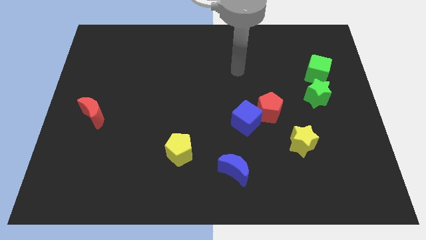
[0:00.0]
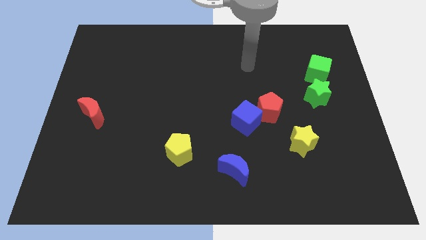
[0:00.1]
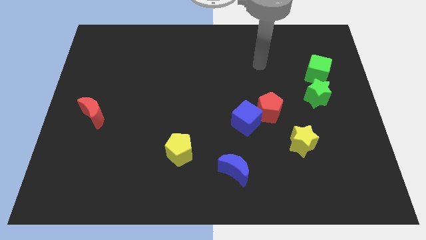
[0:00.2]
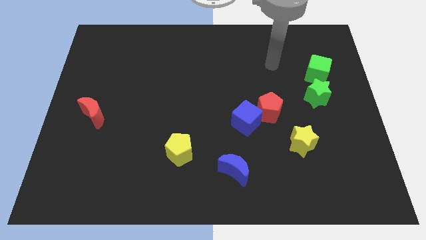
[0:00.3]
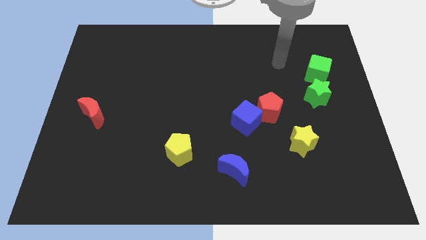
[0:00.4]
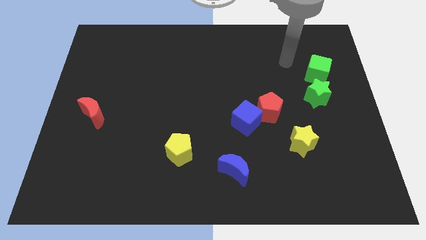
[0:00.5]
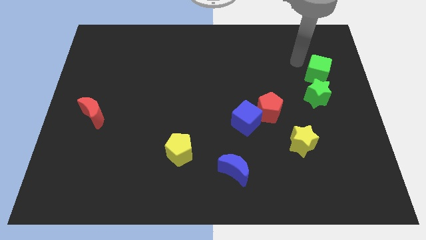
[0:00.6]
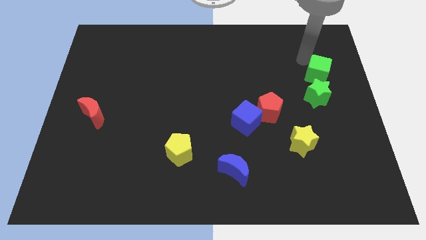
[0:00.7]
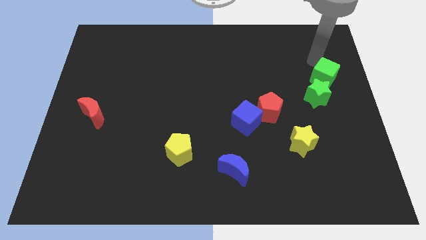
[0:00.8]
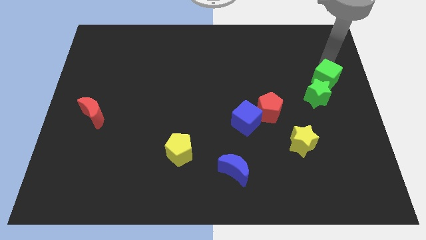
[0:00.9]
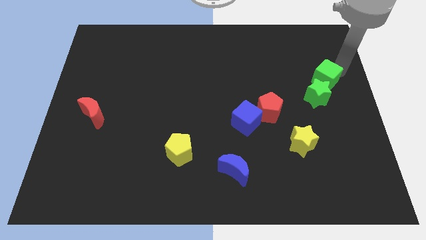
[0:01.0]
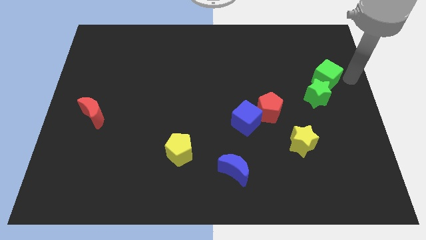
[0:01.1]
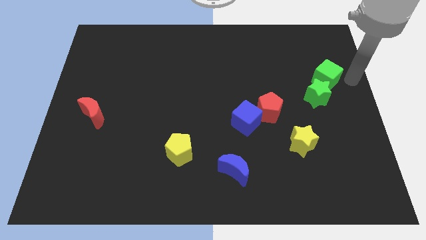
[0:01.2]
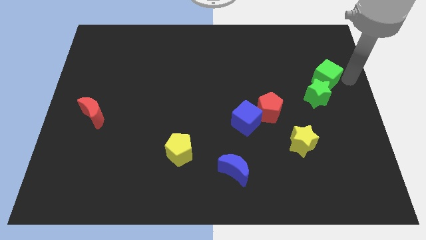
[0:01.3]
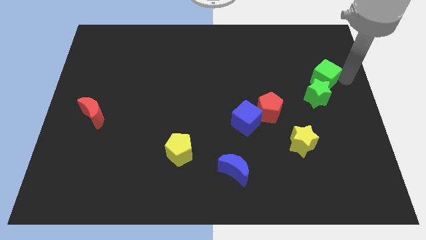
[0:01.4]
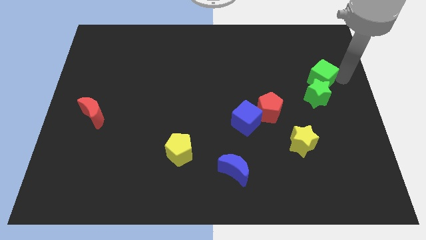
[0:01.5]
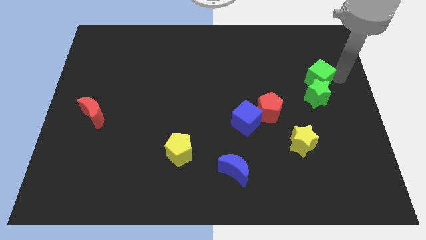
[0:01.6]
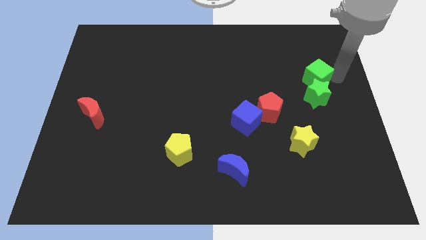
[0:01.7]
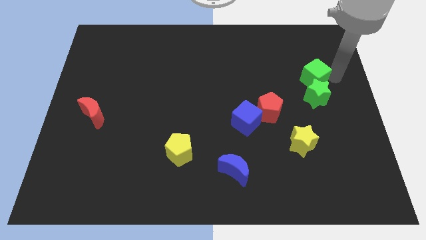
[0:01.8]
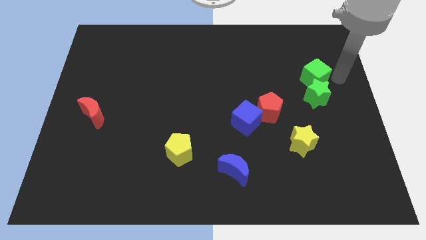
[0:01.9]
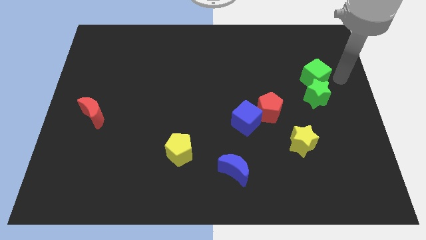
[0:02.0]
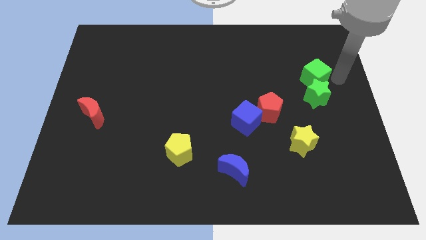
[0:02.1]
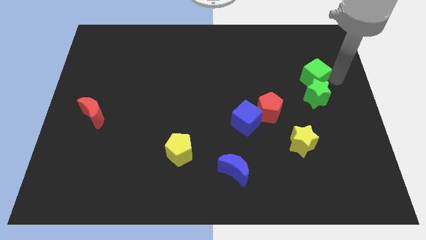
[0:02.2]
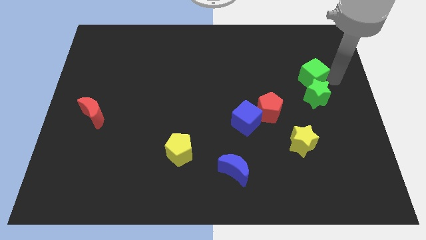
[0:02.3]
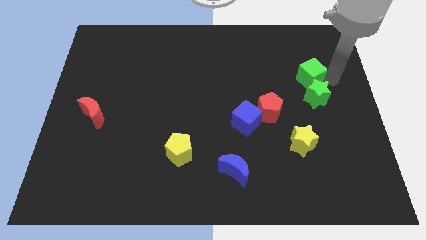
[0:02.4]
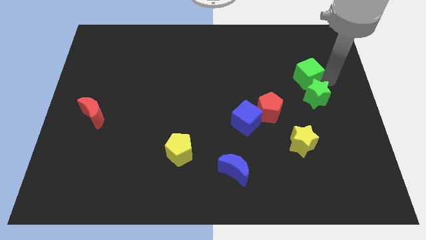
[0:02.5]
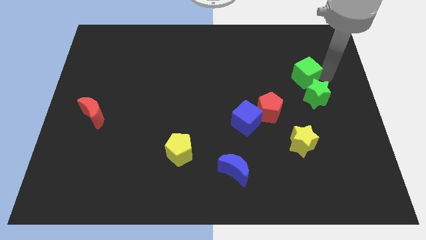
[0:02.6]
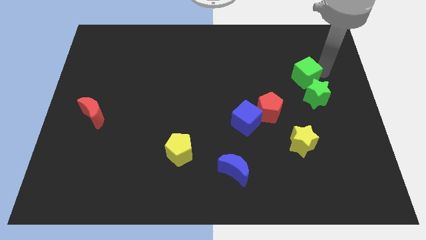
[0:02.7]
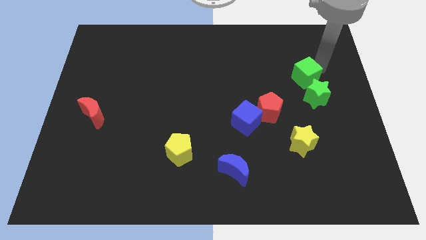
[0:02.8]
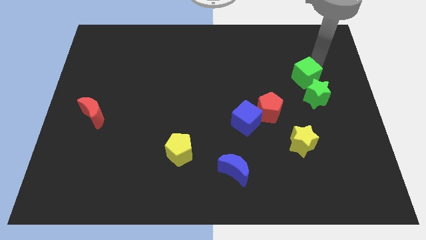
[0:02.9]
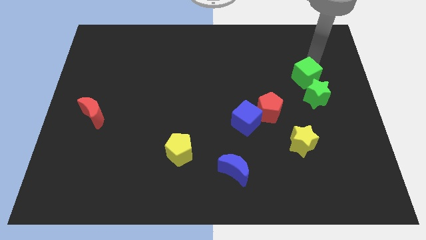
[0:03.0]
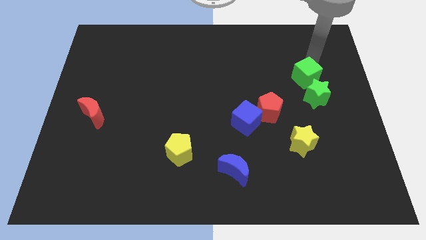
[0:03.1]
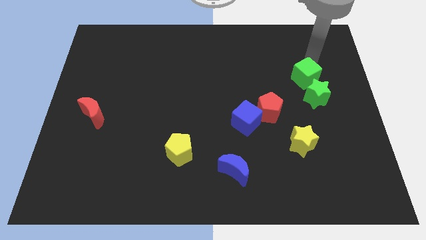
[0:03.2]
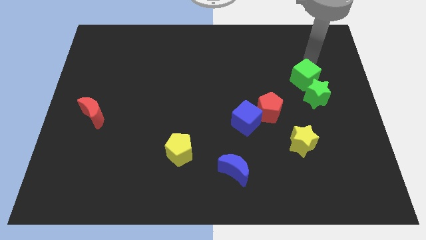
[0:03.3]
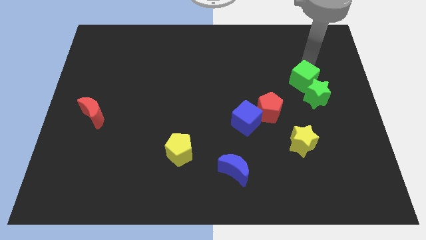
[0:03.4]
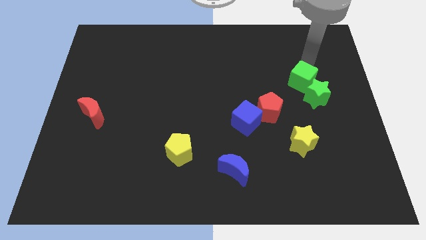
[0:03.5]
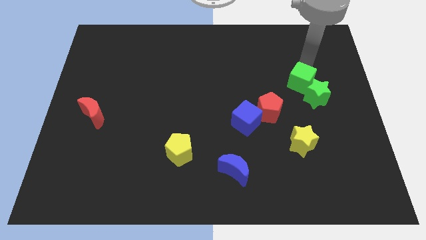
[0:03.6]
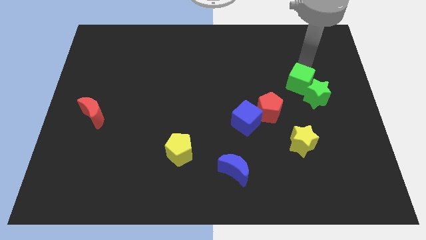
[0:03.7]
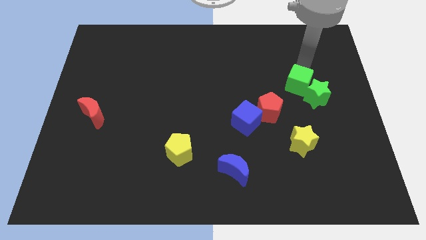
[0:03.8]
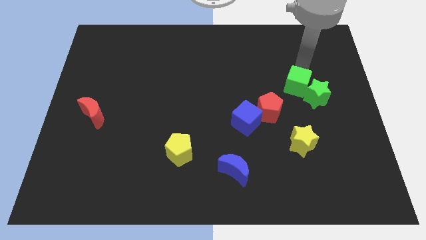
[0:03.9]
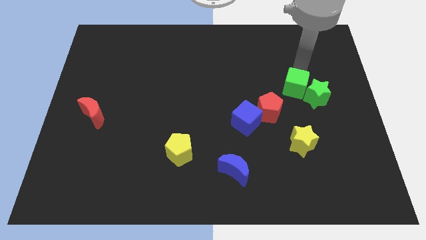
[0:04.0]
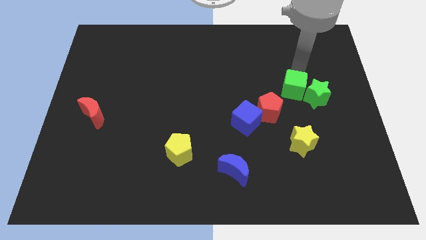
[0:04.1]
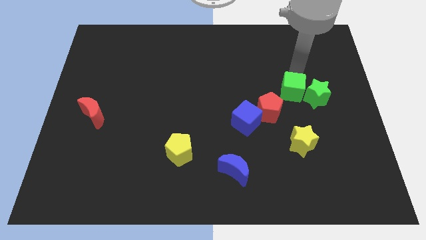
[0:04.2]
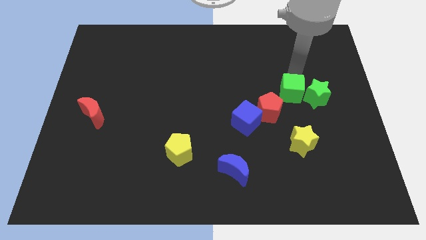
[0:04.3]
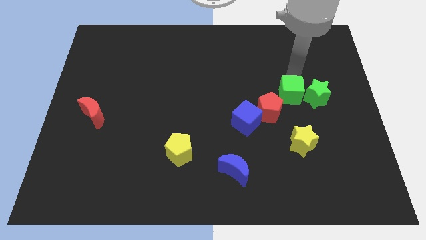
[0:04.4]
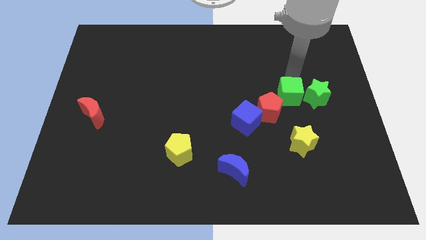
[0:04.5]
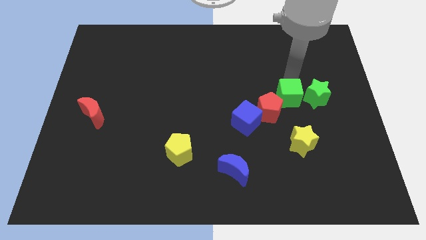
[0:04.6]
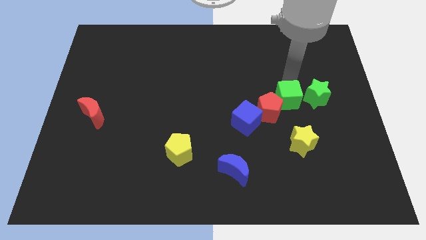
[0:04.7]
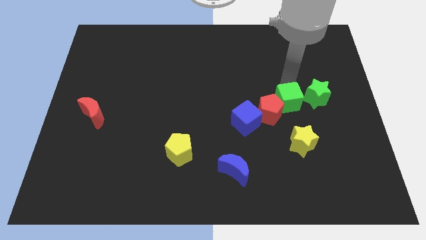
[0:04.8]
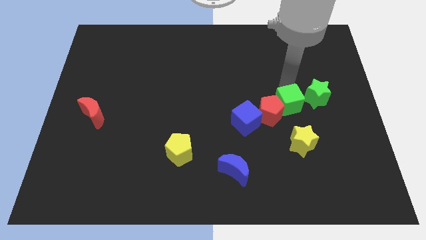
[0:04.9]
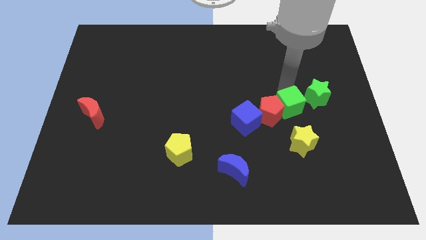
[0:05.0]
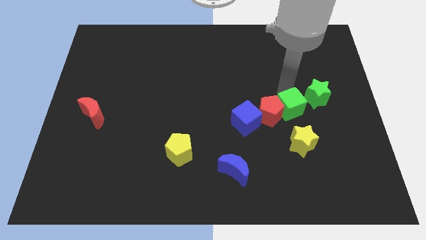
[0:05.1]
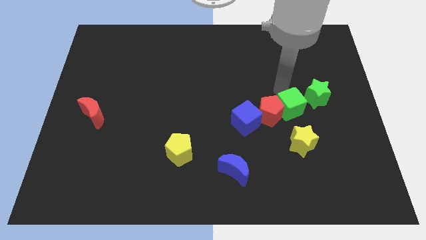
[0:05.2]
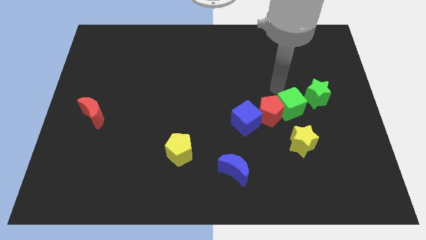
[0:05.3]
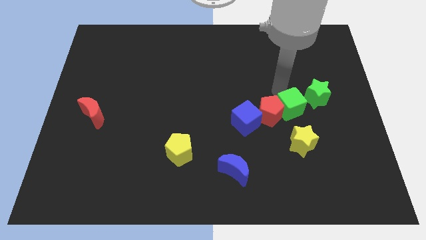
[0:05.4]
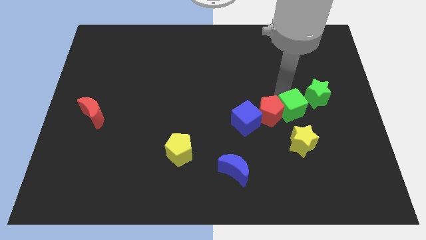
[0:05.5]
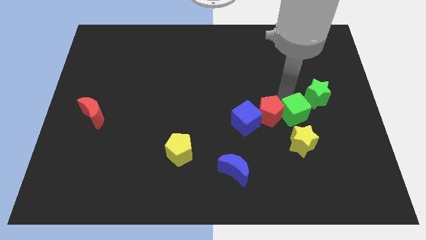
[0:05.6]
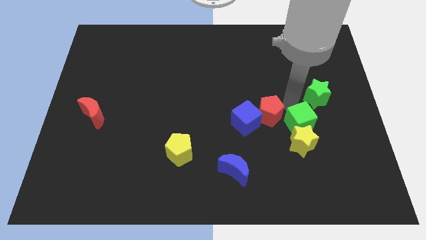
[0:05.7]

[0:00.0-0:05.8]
put the green cube to the yellow star

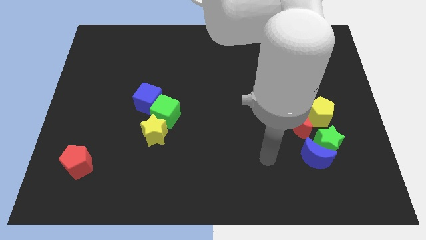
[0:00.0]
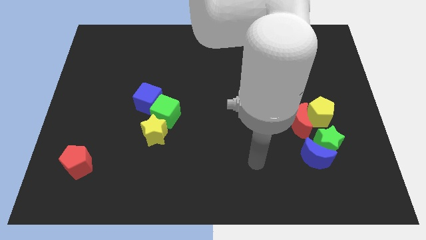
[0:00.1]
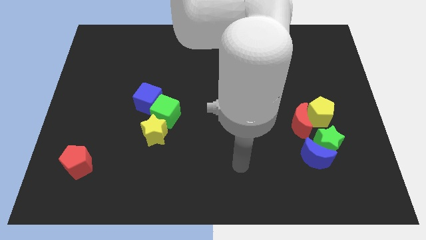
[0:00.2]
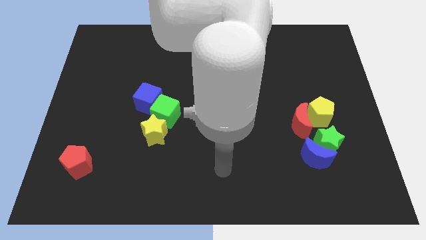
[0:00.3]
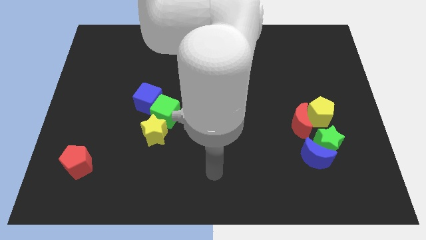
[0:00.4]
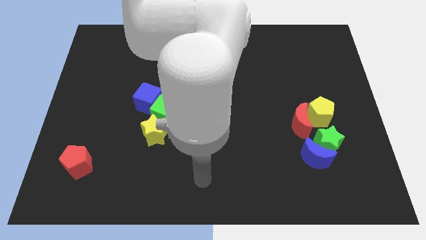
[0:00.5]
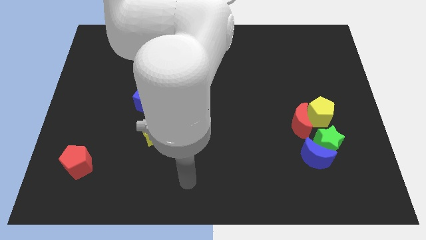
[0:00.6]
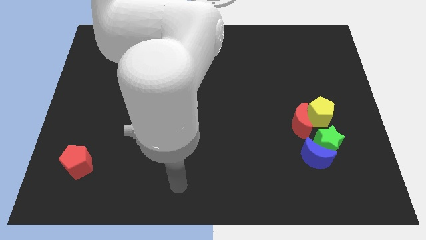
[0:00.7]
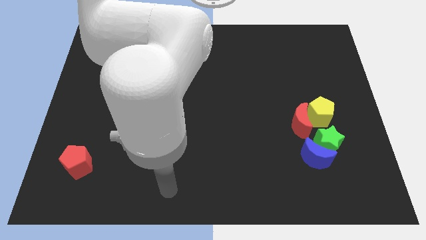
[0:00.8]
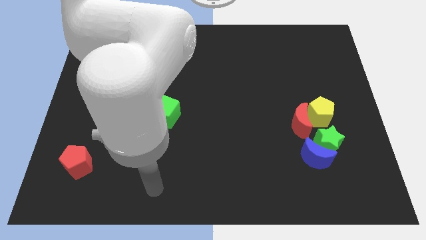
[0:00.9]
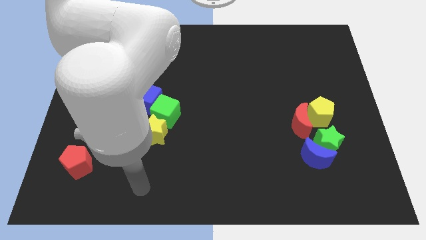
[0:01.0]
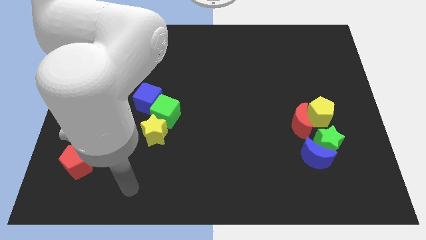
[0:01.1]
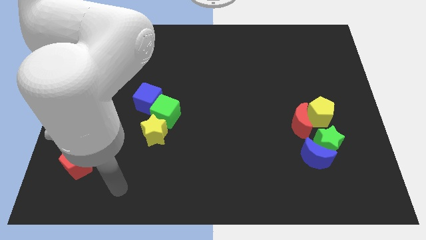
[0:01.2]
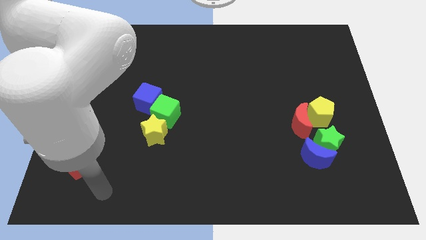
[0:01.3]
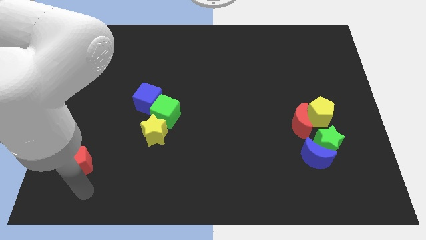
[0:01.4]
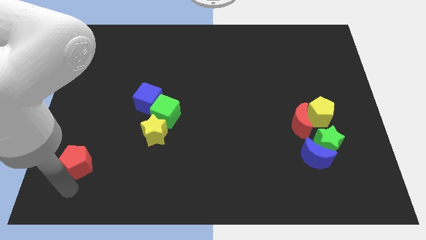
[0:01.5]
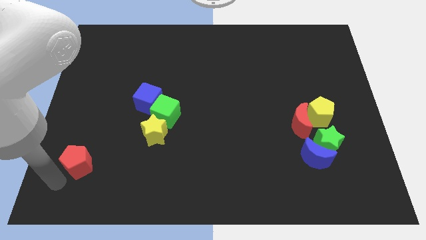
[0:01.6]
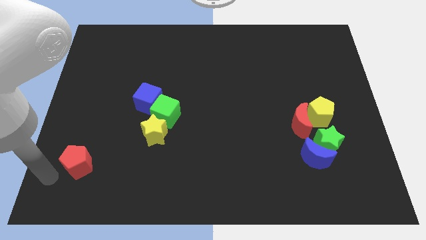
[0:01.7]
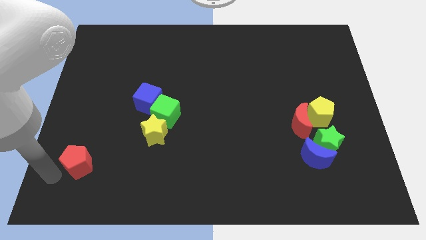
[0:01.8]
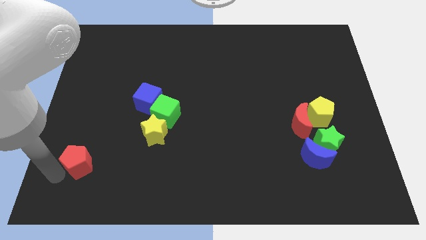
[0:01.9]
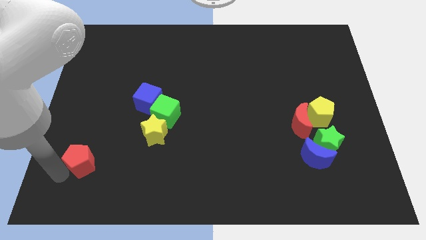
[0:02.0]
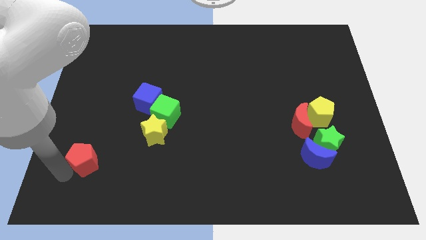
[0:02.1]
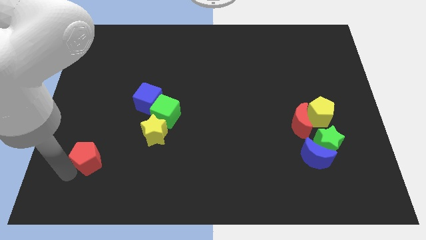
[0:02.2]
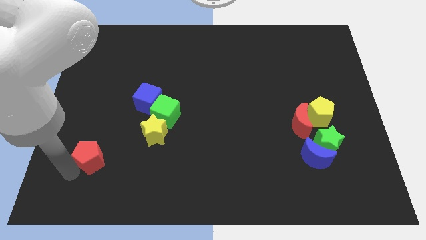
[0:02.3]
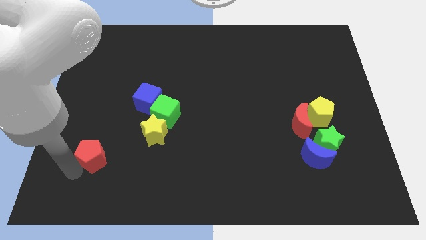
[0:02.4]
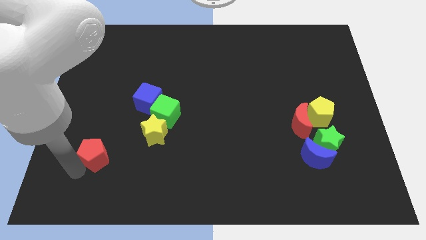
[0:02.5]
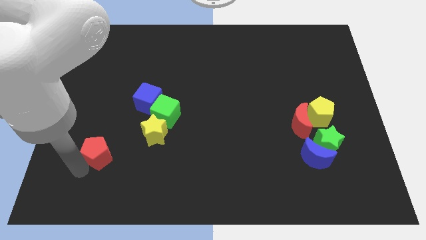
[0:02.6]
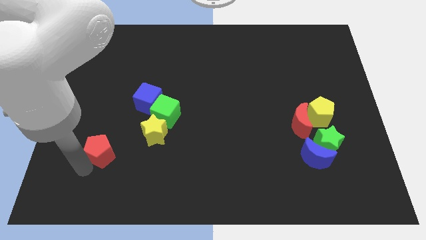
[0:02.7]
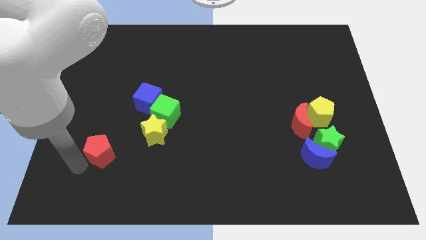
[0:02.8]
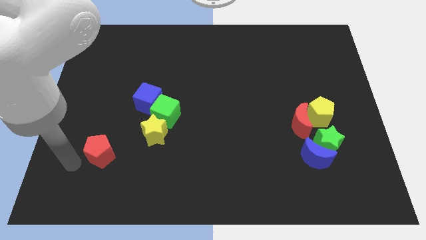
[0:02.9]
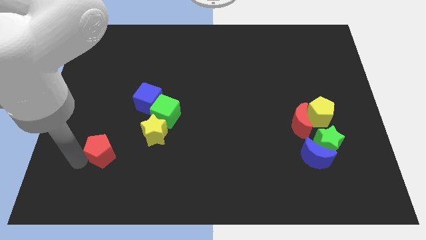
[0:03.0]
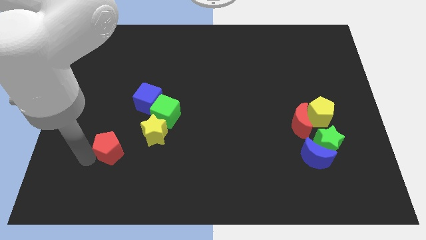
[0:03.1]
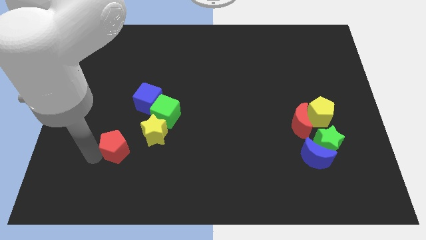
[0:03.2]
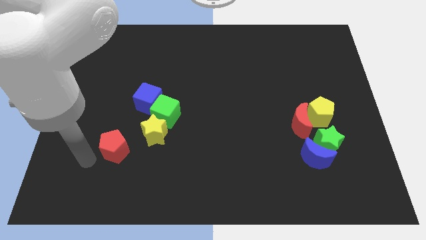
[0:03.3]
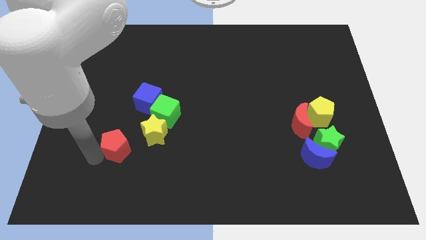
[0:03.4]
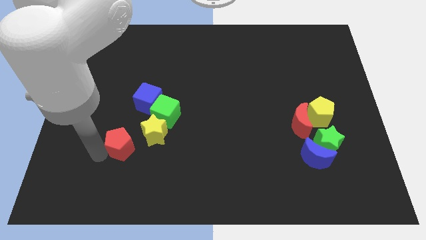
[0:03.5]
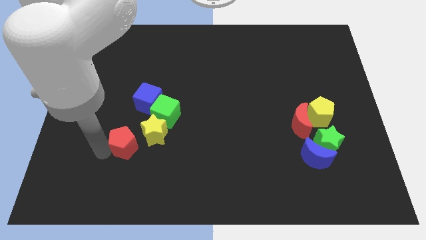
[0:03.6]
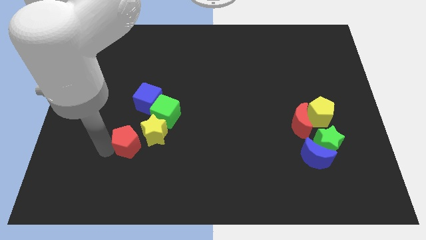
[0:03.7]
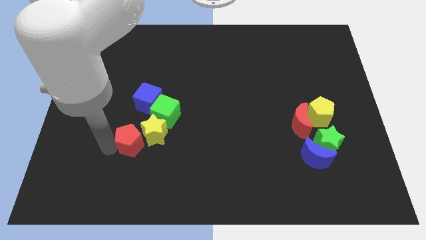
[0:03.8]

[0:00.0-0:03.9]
slide the red pentagon close to the yellow star
